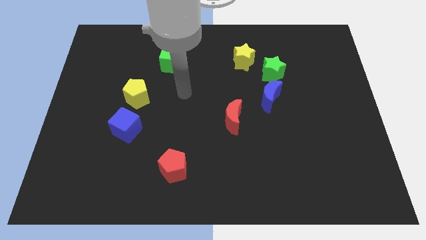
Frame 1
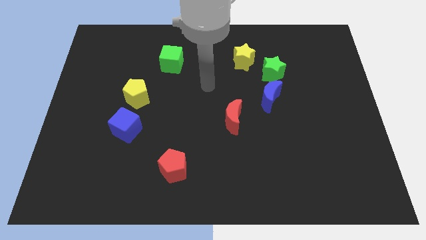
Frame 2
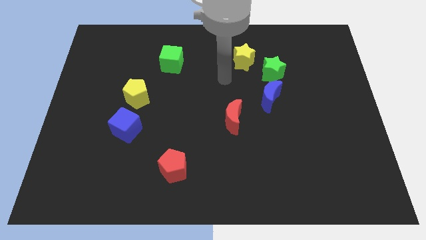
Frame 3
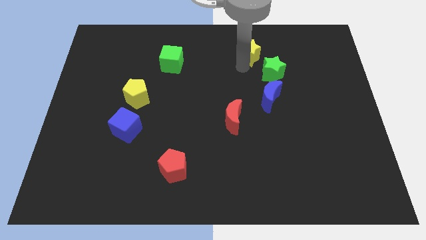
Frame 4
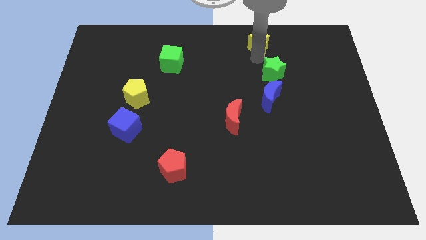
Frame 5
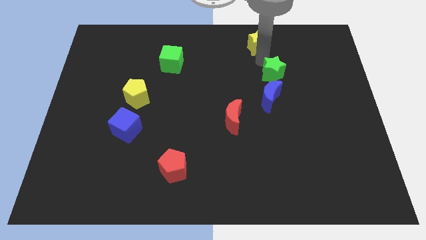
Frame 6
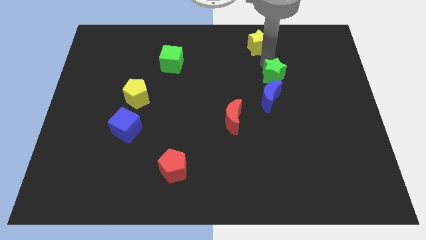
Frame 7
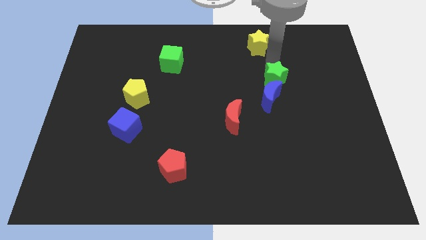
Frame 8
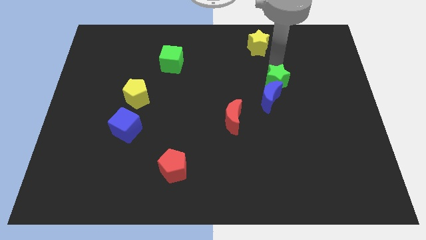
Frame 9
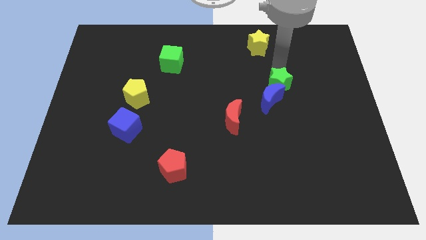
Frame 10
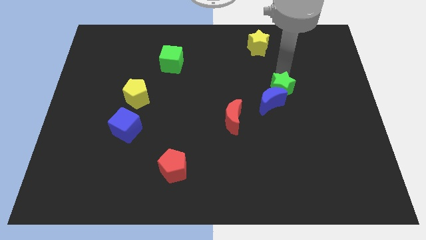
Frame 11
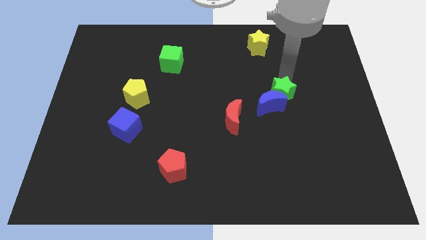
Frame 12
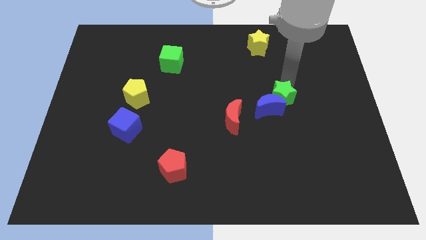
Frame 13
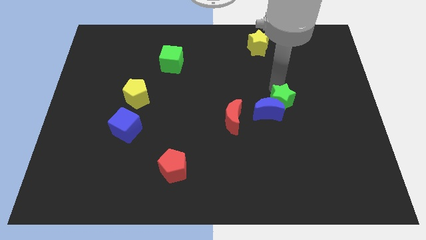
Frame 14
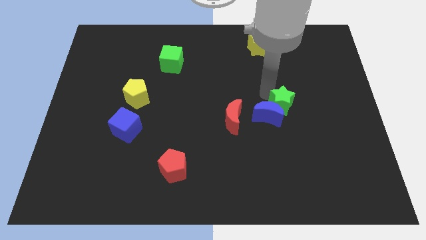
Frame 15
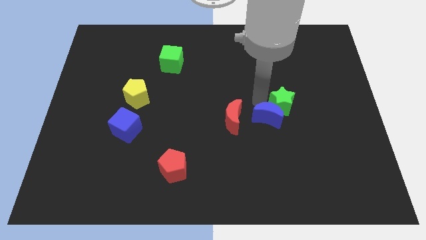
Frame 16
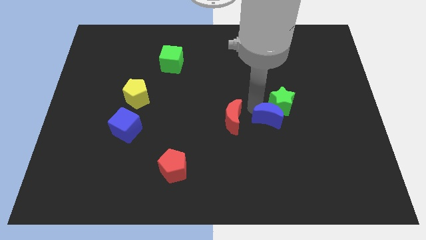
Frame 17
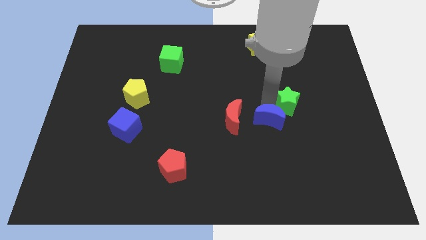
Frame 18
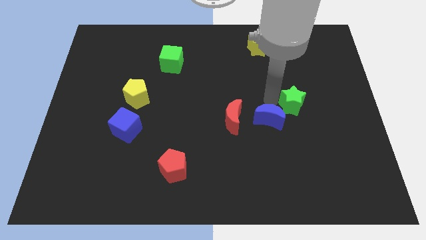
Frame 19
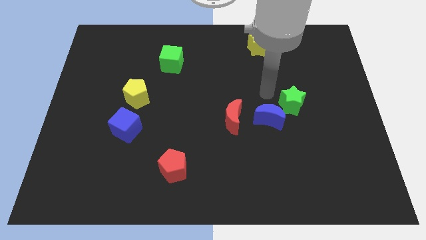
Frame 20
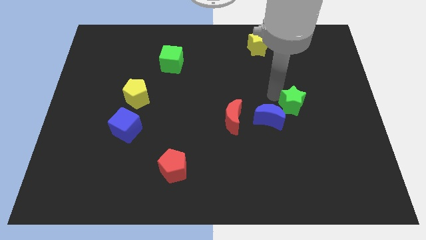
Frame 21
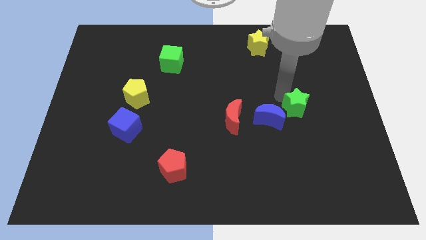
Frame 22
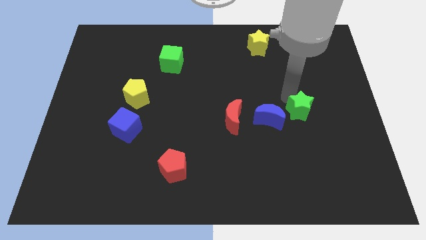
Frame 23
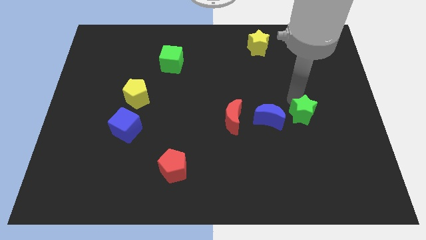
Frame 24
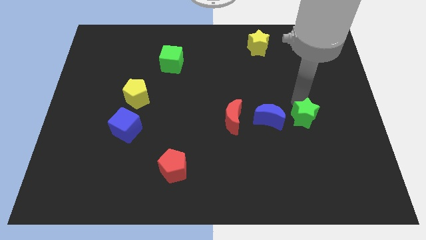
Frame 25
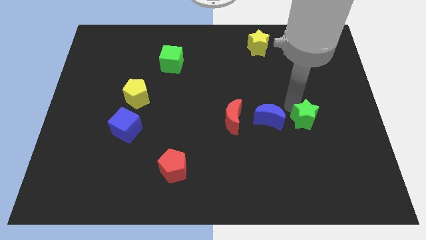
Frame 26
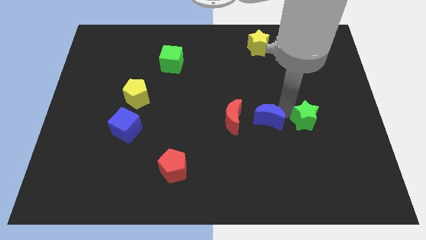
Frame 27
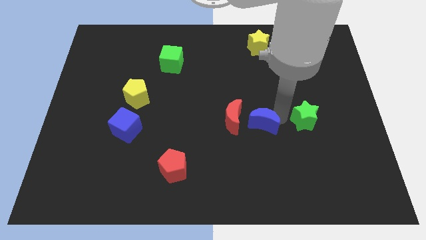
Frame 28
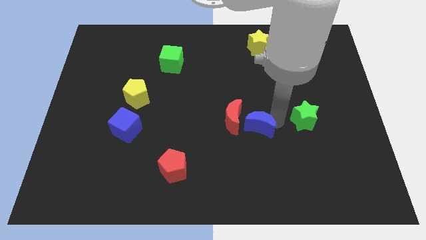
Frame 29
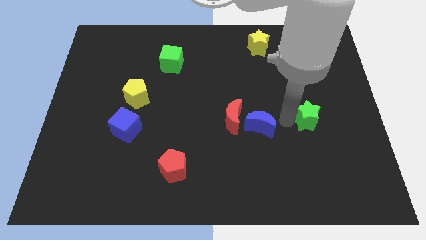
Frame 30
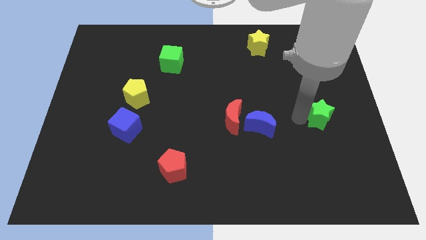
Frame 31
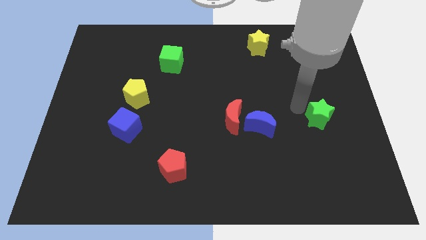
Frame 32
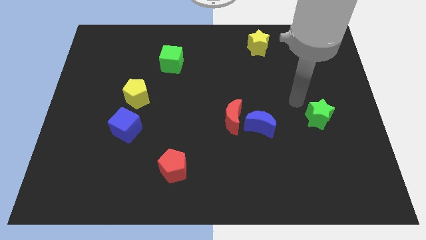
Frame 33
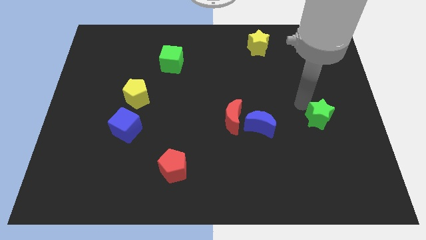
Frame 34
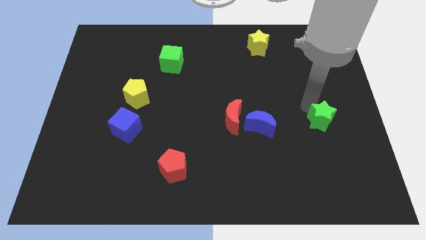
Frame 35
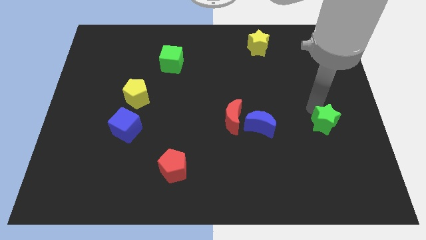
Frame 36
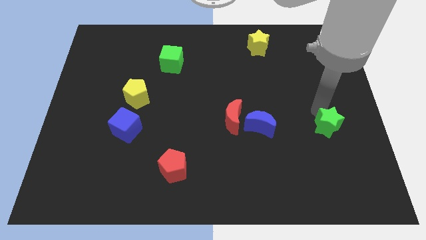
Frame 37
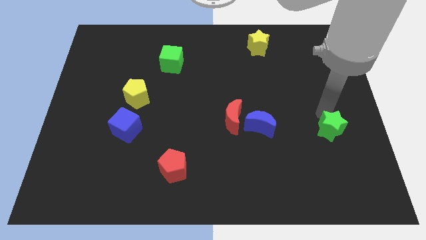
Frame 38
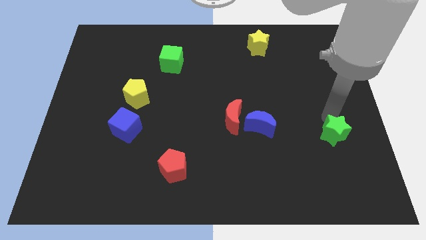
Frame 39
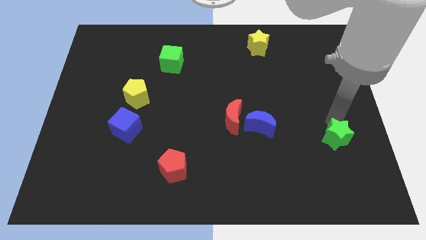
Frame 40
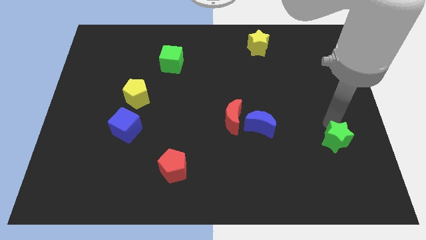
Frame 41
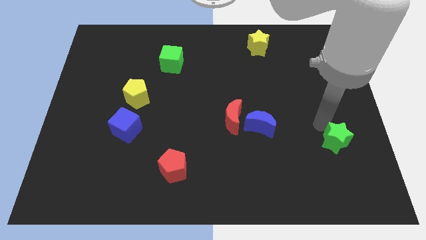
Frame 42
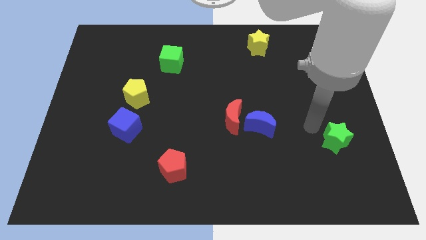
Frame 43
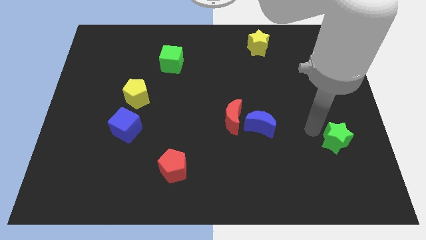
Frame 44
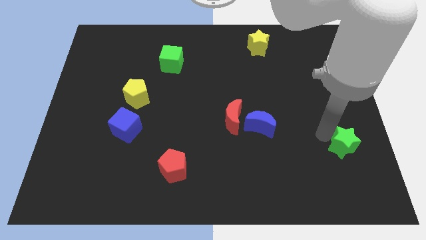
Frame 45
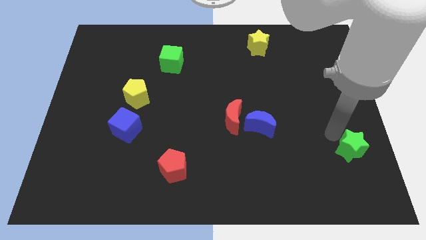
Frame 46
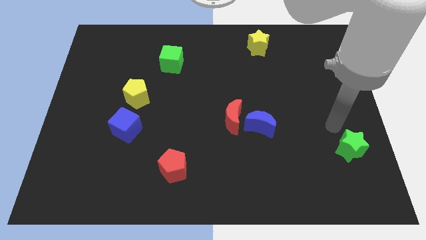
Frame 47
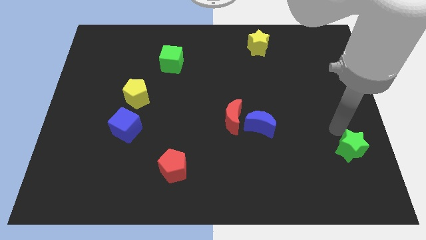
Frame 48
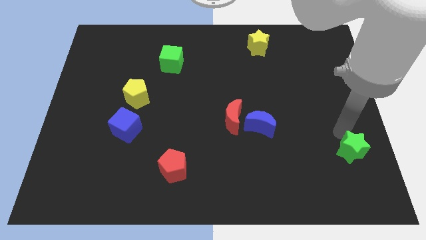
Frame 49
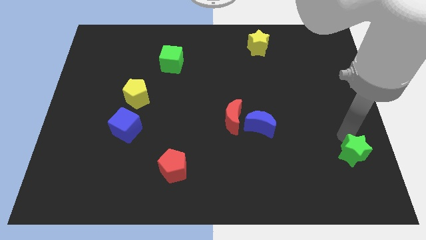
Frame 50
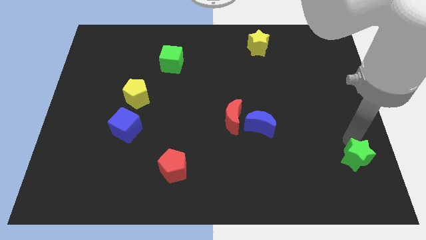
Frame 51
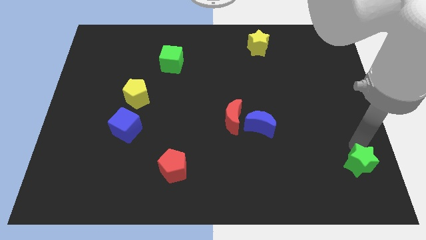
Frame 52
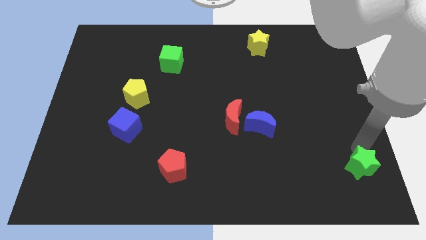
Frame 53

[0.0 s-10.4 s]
put the green star to the bottom right corner
